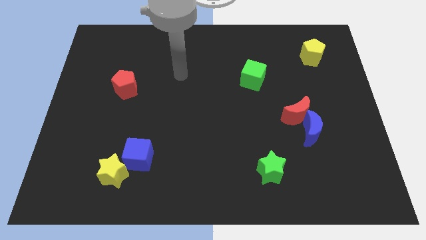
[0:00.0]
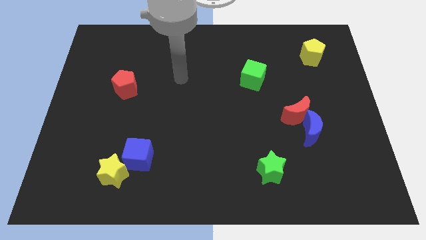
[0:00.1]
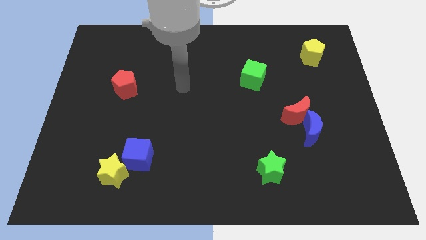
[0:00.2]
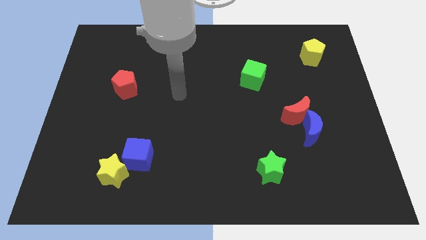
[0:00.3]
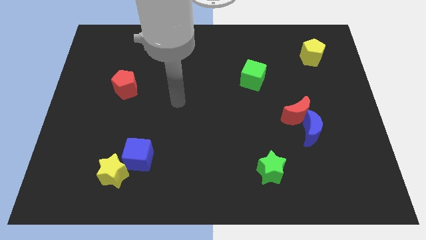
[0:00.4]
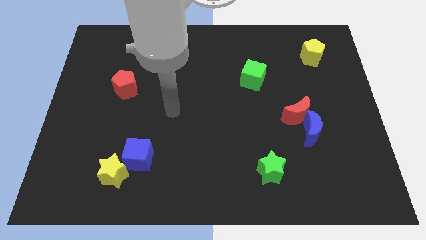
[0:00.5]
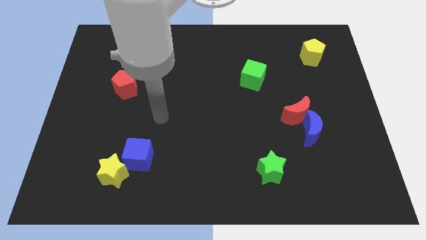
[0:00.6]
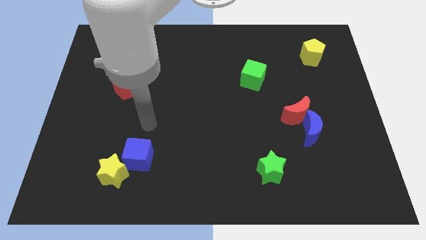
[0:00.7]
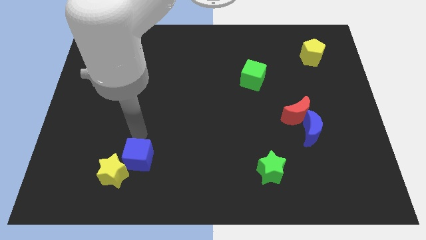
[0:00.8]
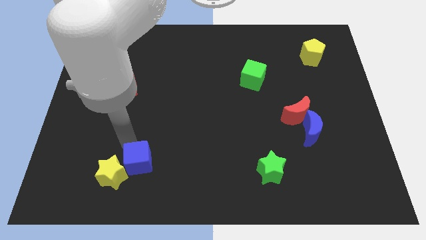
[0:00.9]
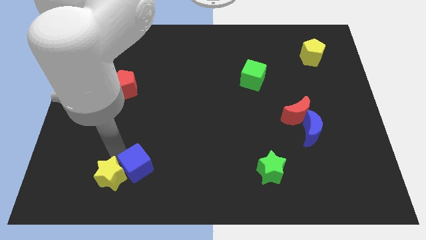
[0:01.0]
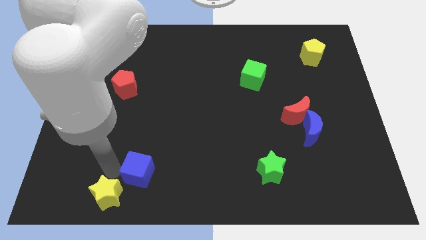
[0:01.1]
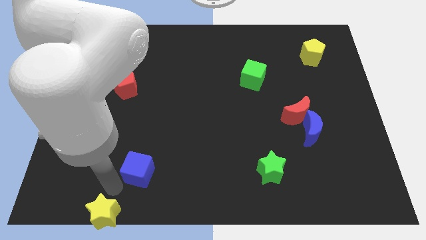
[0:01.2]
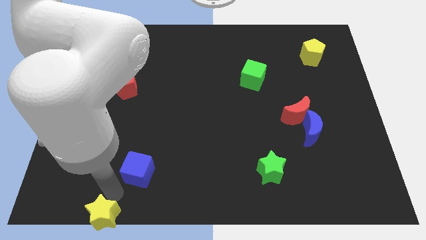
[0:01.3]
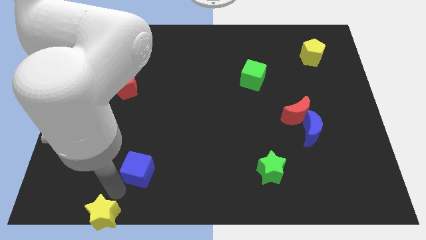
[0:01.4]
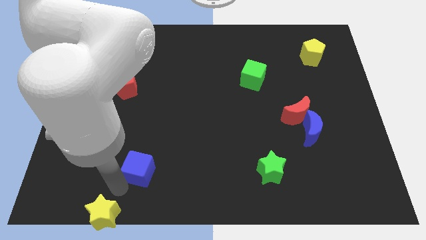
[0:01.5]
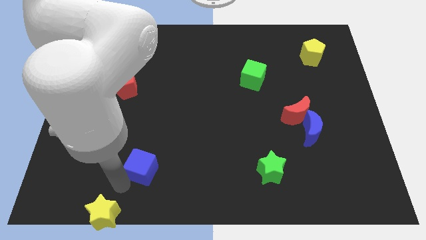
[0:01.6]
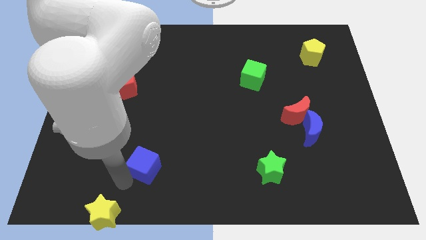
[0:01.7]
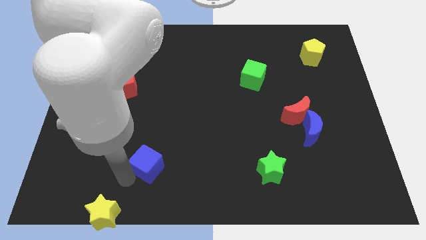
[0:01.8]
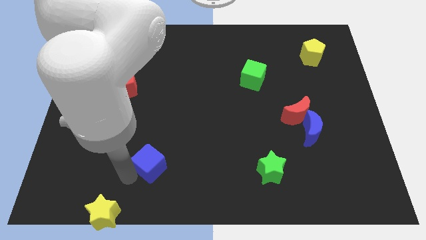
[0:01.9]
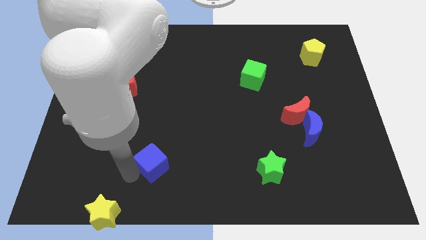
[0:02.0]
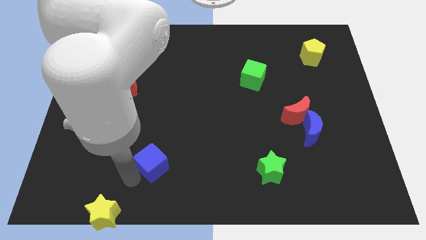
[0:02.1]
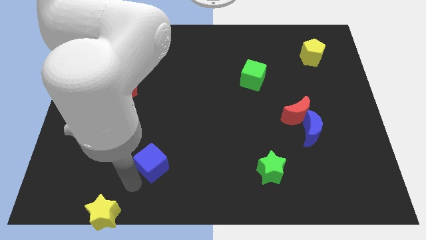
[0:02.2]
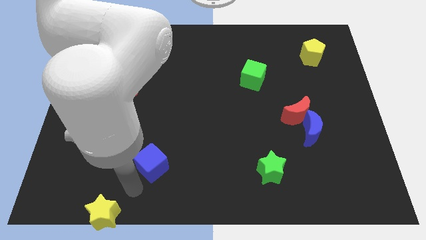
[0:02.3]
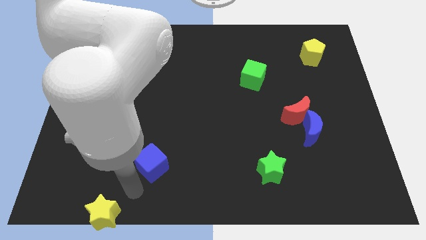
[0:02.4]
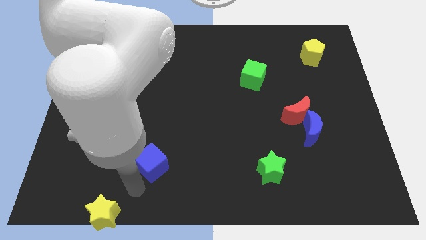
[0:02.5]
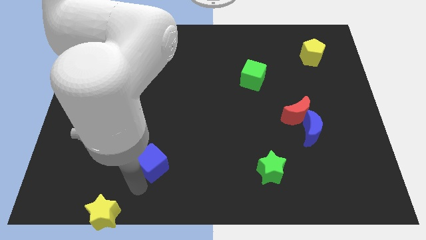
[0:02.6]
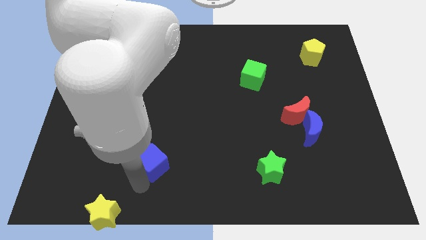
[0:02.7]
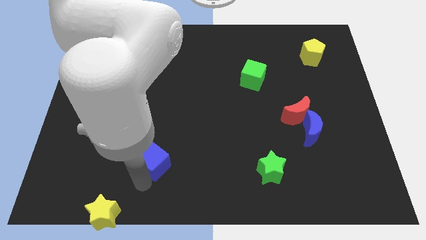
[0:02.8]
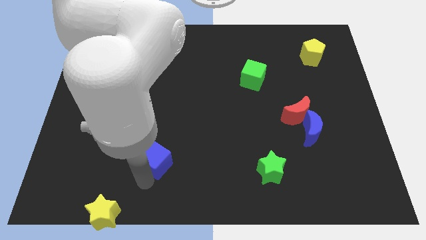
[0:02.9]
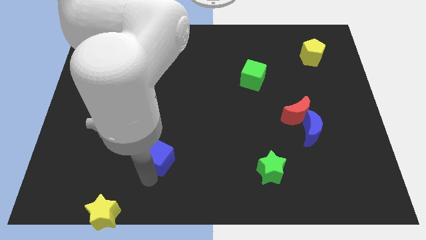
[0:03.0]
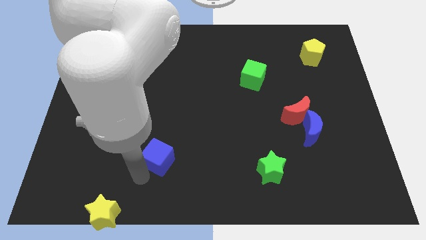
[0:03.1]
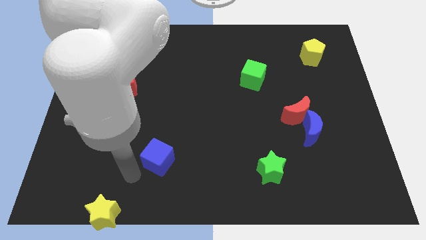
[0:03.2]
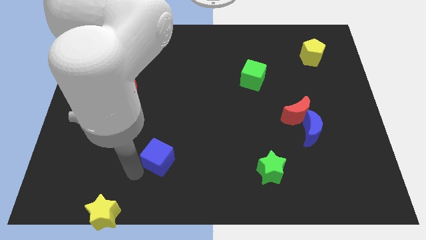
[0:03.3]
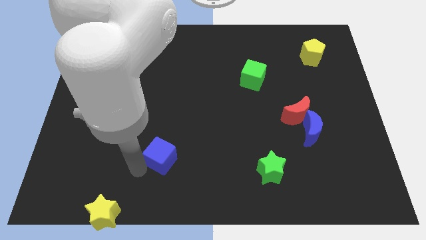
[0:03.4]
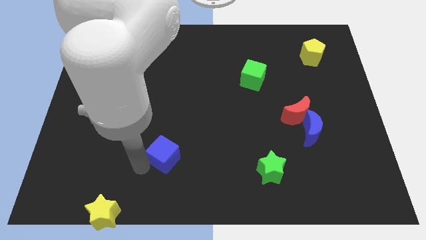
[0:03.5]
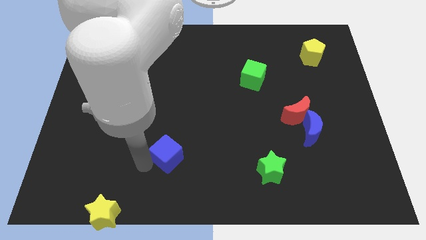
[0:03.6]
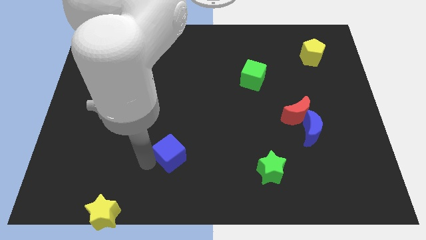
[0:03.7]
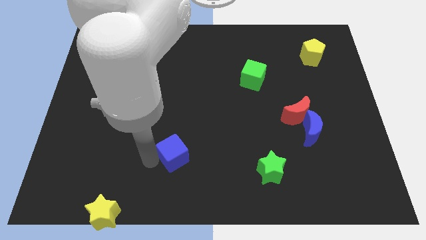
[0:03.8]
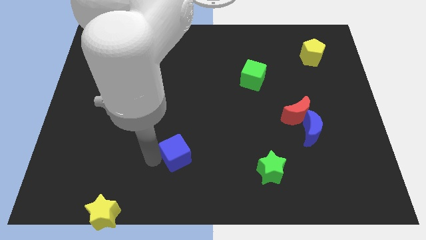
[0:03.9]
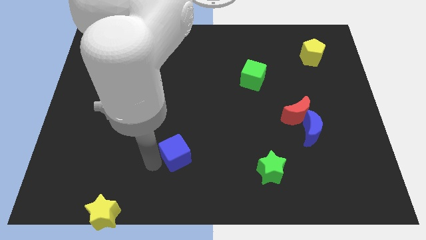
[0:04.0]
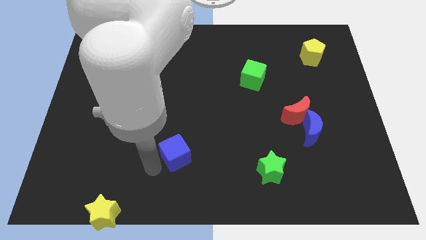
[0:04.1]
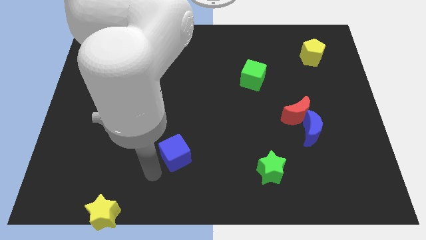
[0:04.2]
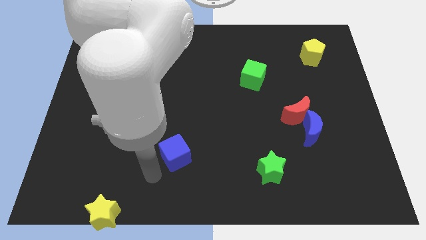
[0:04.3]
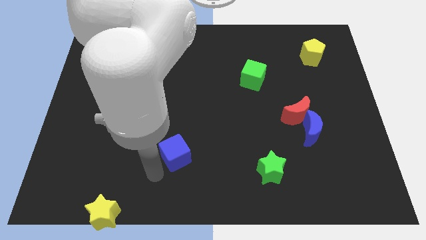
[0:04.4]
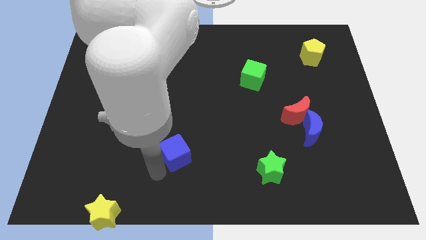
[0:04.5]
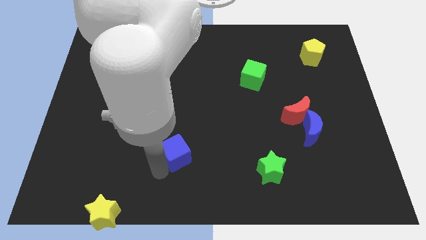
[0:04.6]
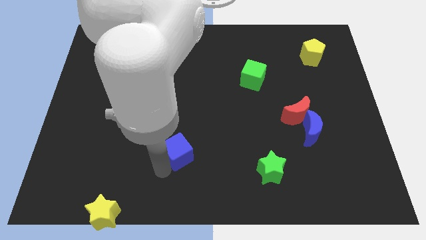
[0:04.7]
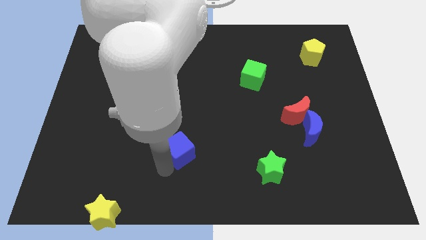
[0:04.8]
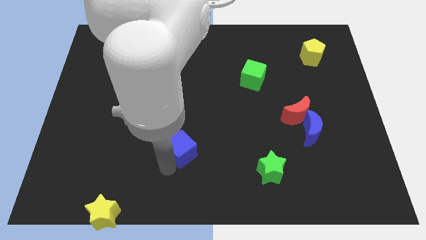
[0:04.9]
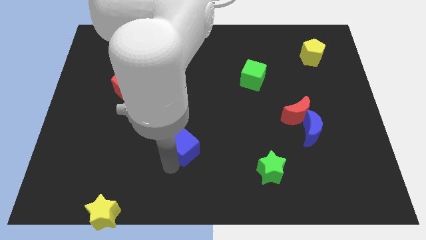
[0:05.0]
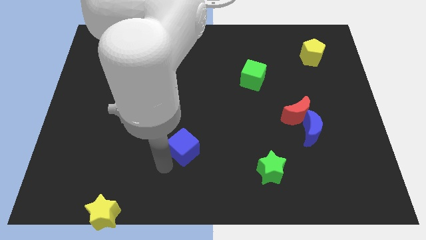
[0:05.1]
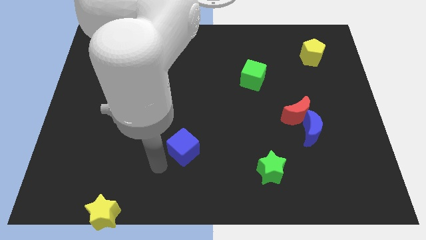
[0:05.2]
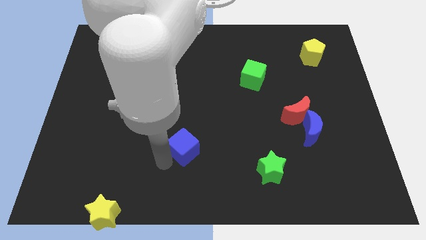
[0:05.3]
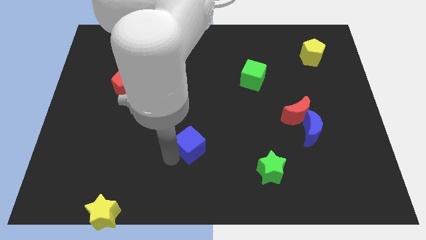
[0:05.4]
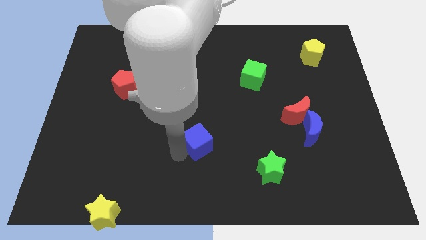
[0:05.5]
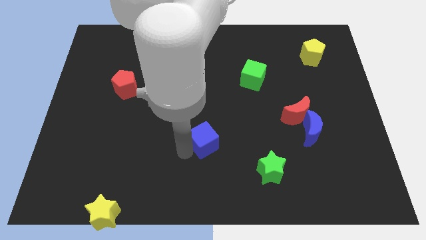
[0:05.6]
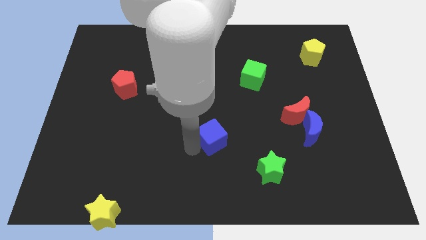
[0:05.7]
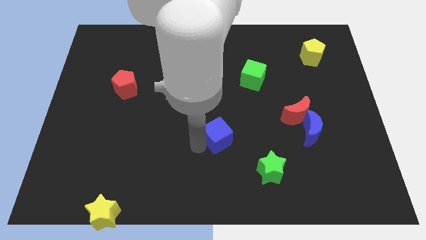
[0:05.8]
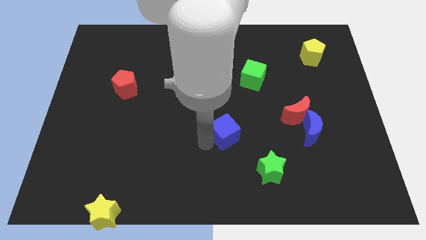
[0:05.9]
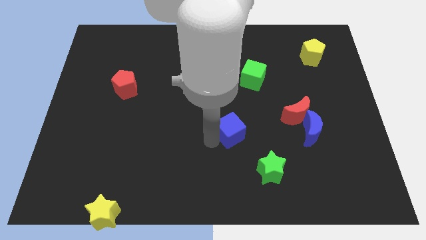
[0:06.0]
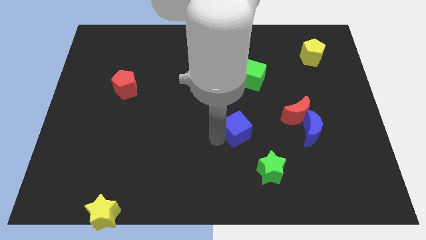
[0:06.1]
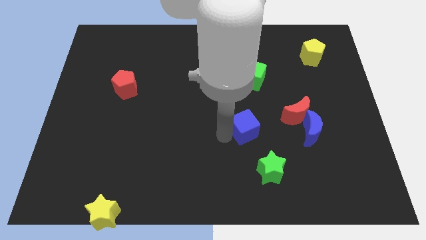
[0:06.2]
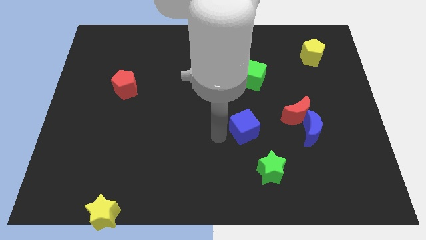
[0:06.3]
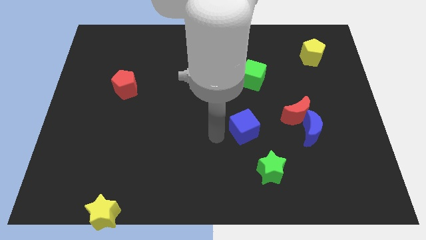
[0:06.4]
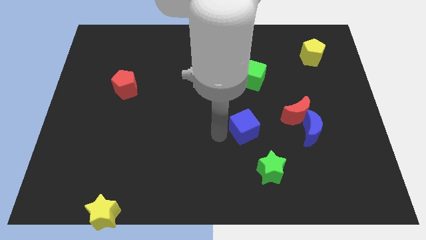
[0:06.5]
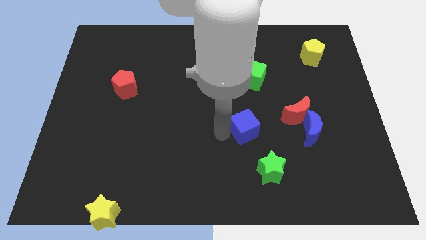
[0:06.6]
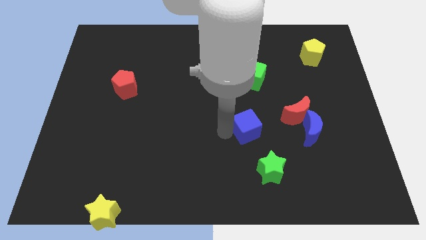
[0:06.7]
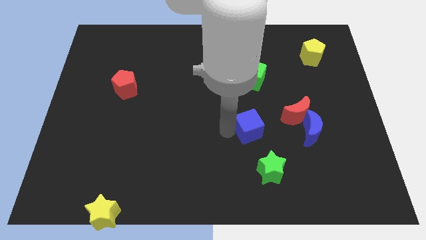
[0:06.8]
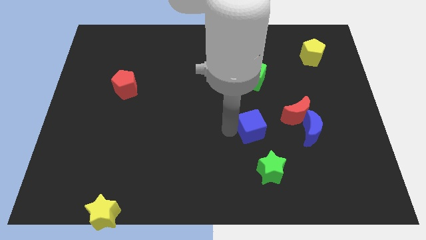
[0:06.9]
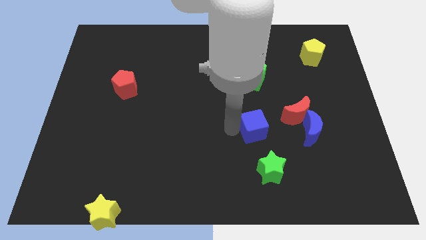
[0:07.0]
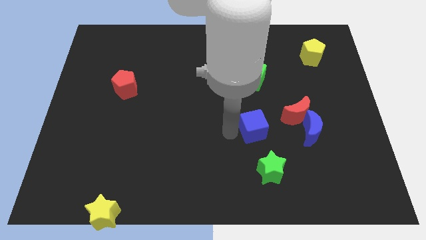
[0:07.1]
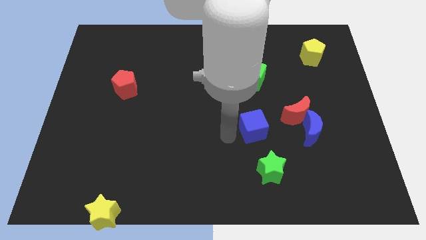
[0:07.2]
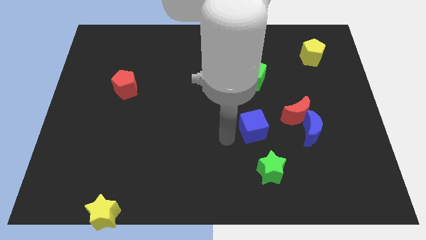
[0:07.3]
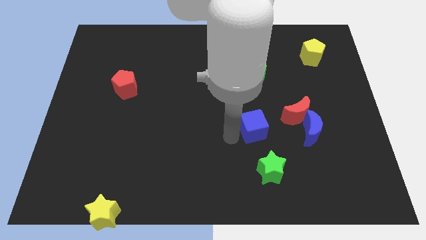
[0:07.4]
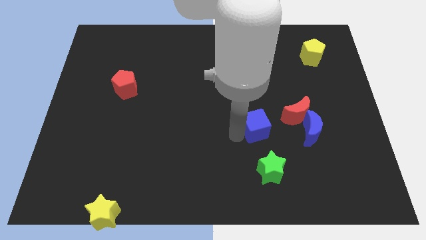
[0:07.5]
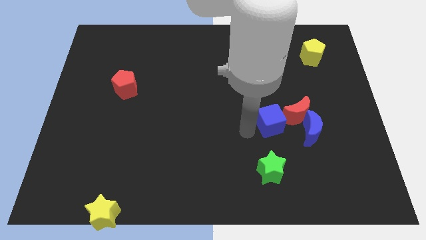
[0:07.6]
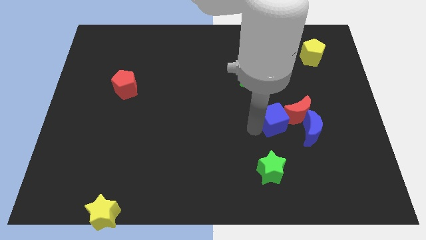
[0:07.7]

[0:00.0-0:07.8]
move the blue cube to the red moon
